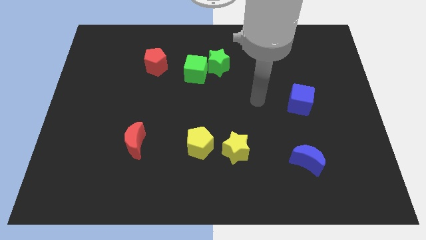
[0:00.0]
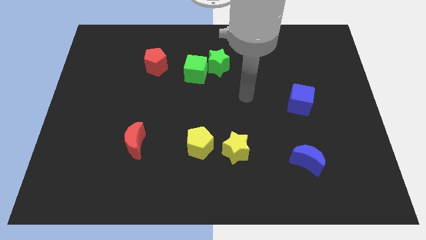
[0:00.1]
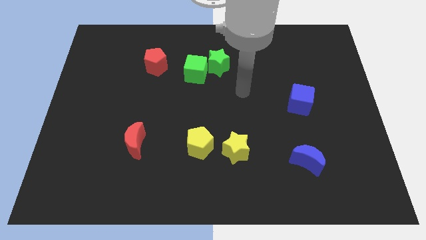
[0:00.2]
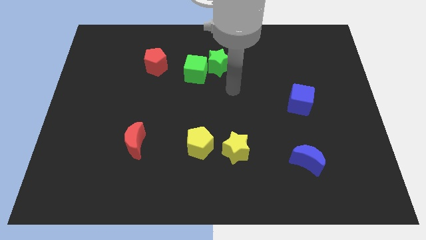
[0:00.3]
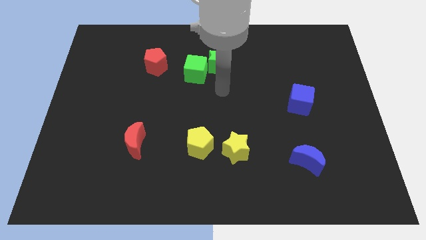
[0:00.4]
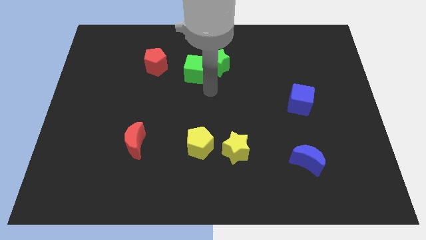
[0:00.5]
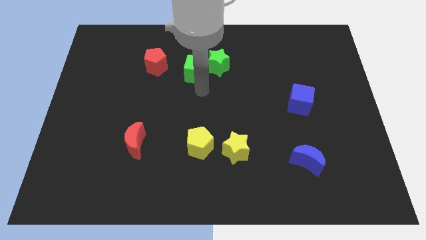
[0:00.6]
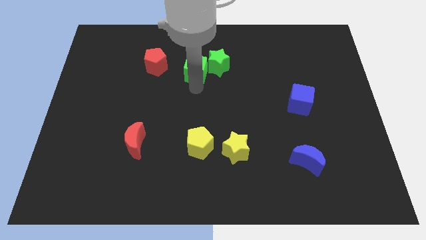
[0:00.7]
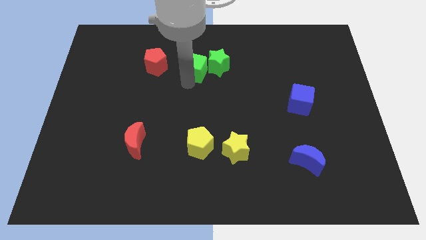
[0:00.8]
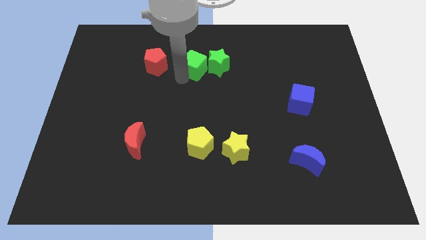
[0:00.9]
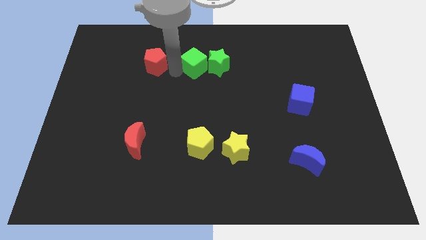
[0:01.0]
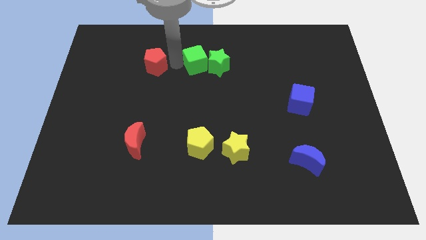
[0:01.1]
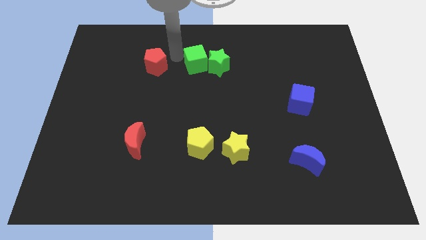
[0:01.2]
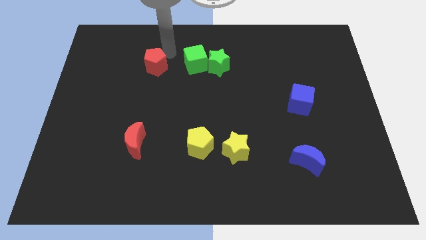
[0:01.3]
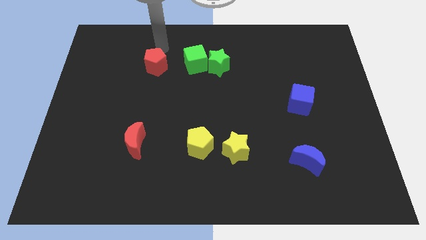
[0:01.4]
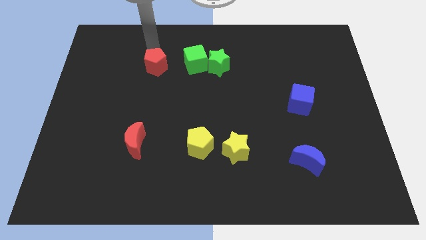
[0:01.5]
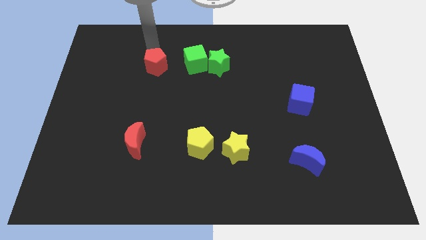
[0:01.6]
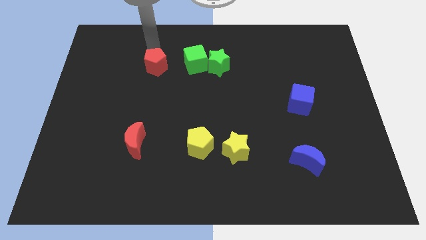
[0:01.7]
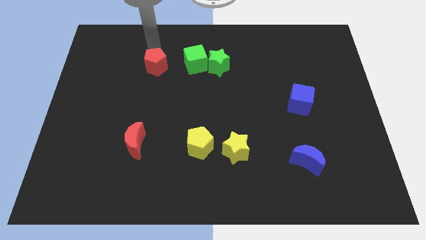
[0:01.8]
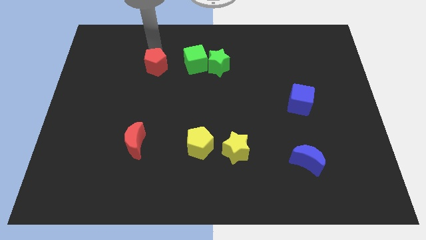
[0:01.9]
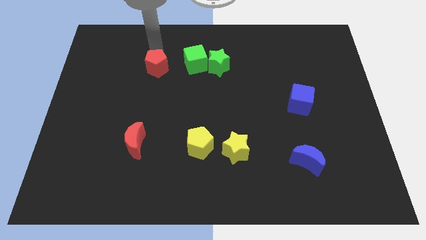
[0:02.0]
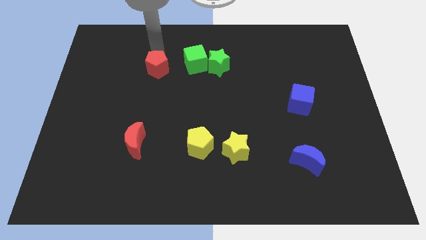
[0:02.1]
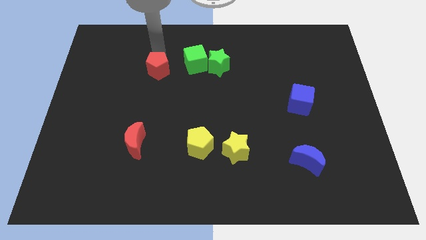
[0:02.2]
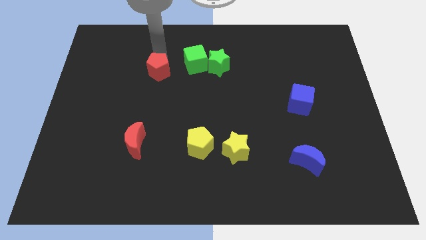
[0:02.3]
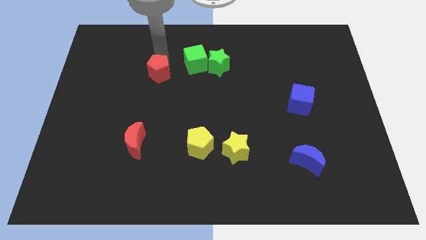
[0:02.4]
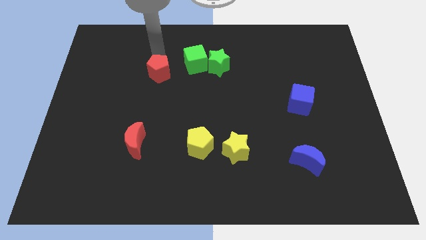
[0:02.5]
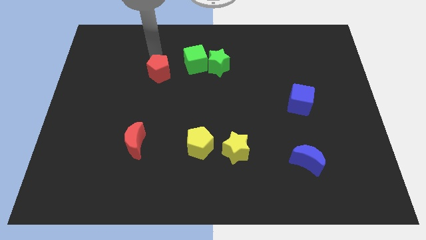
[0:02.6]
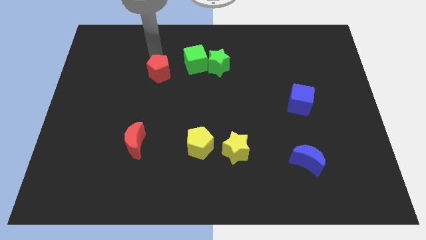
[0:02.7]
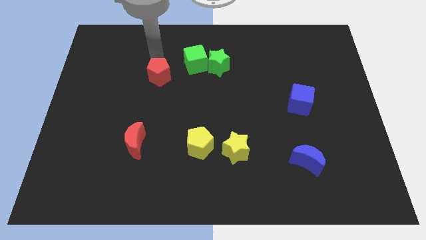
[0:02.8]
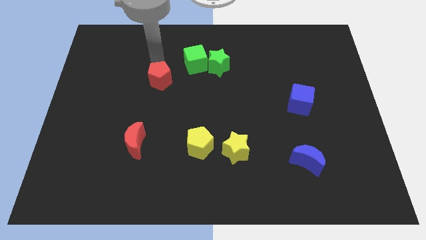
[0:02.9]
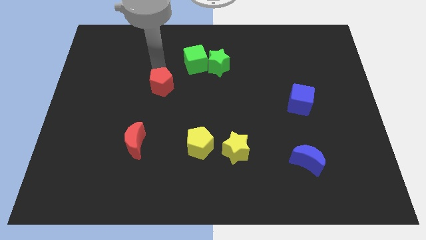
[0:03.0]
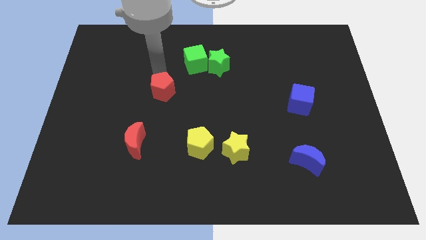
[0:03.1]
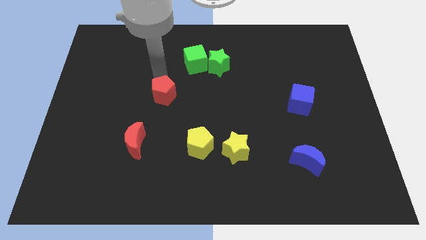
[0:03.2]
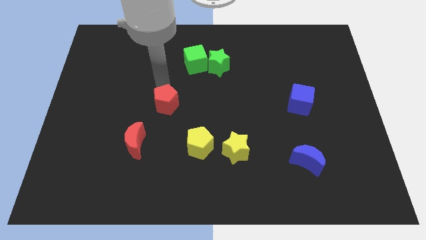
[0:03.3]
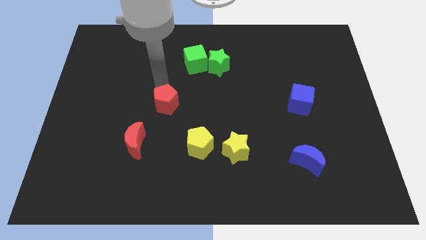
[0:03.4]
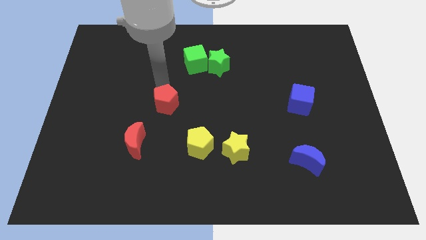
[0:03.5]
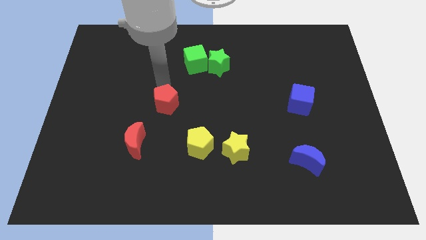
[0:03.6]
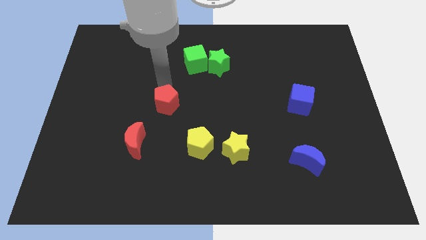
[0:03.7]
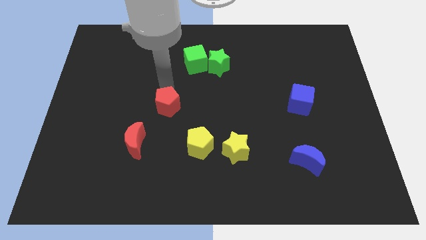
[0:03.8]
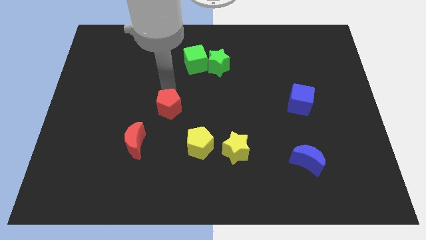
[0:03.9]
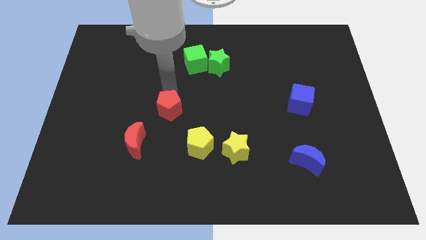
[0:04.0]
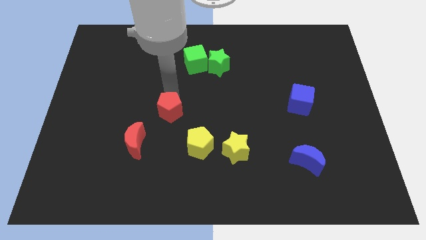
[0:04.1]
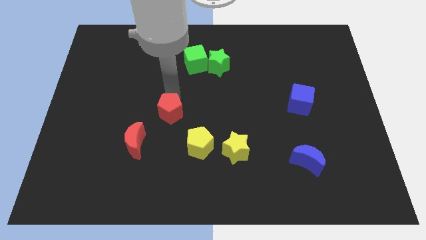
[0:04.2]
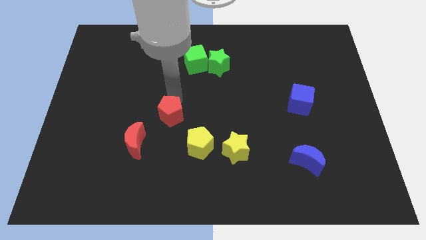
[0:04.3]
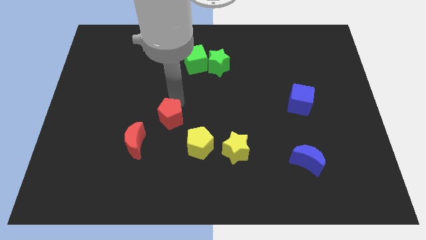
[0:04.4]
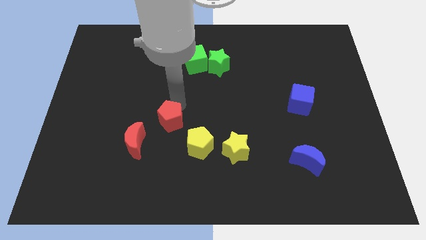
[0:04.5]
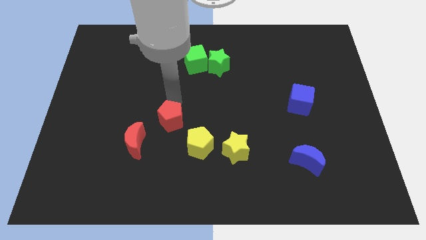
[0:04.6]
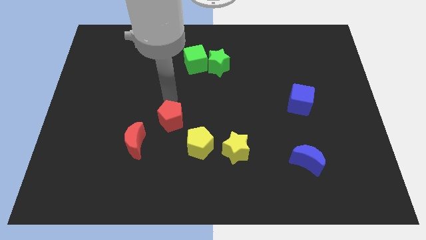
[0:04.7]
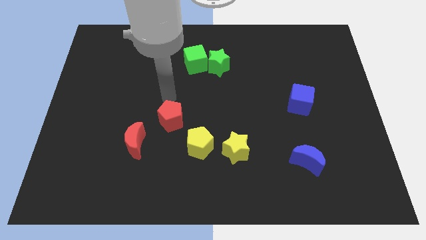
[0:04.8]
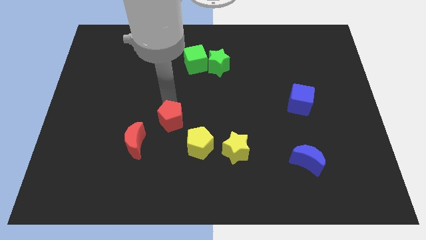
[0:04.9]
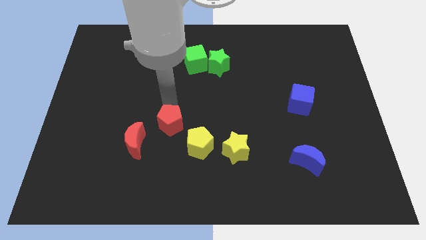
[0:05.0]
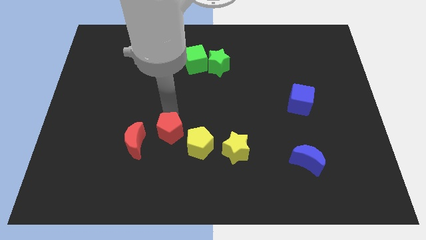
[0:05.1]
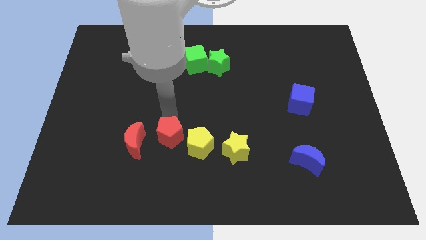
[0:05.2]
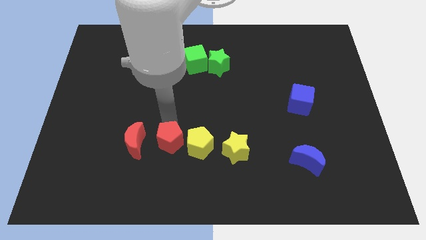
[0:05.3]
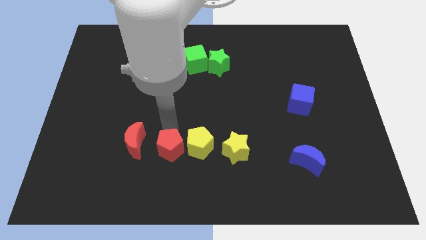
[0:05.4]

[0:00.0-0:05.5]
move the red pentagon to the bottom left side of the yellow pentagon

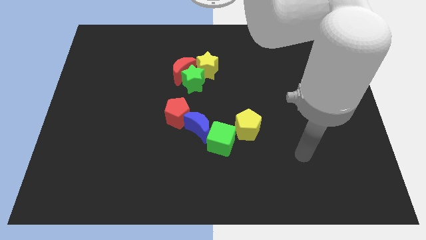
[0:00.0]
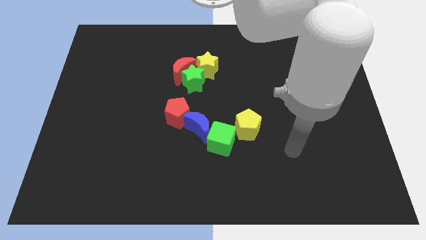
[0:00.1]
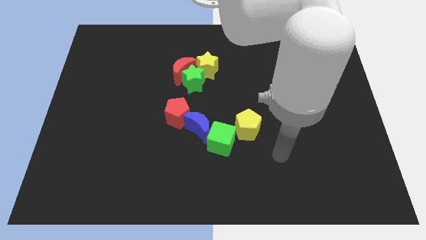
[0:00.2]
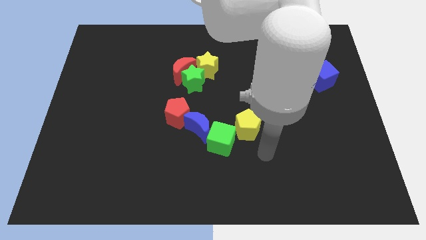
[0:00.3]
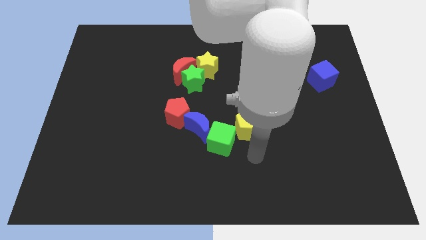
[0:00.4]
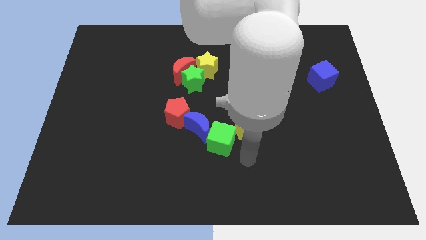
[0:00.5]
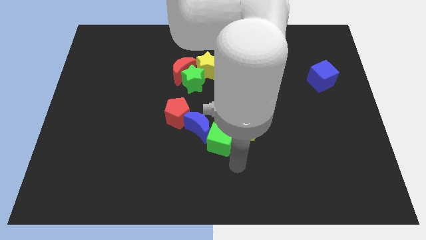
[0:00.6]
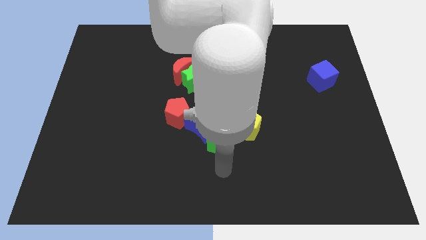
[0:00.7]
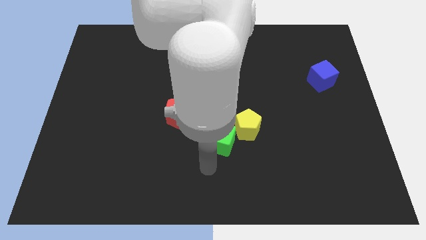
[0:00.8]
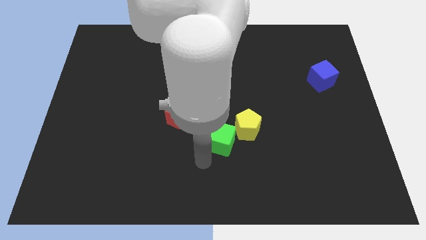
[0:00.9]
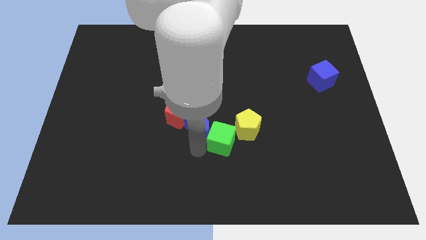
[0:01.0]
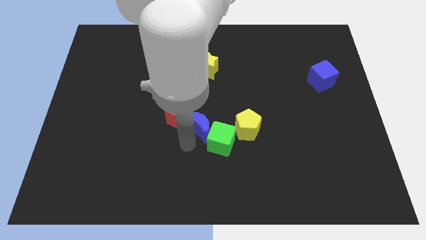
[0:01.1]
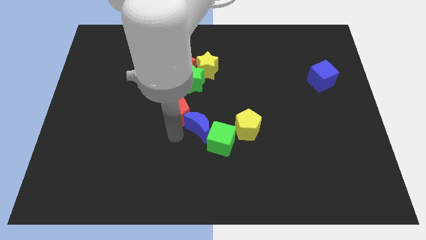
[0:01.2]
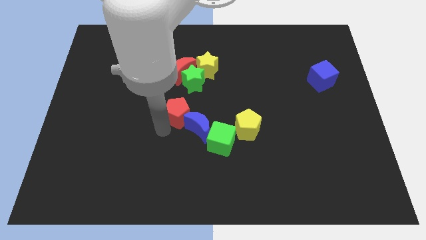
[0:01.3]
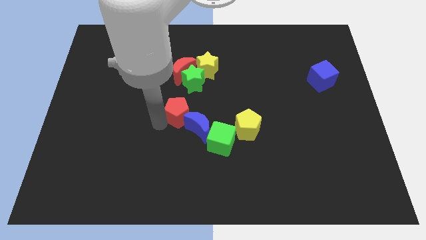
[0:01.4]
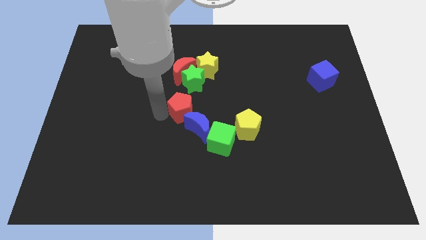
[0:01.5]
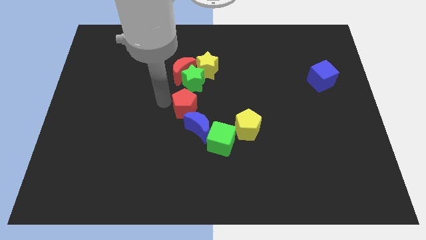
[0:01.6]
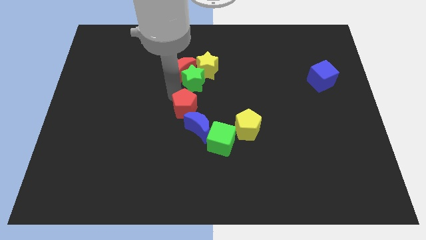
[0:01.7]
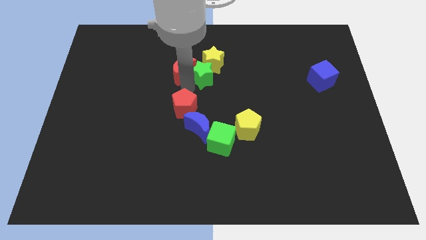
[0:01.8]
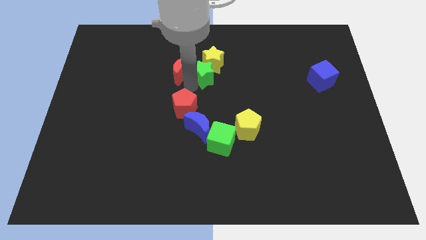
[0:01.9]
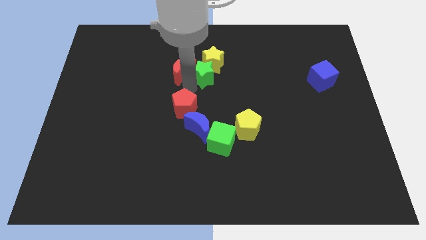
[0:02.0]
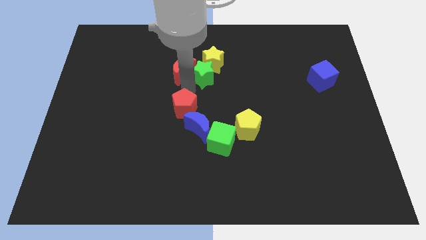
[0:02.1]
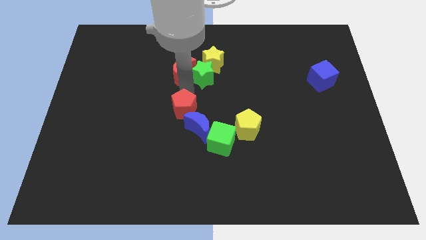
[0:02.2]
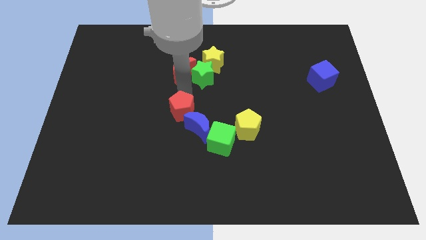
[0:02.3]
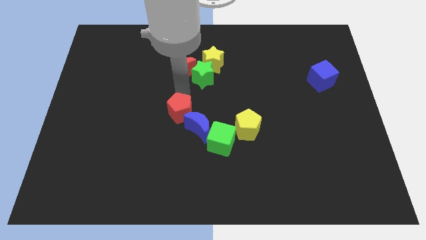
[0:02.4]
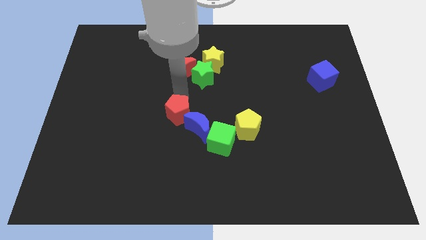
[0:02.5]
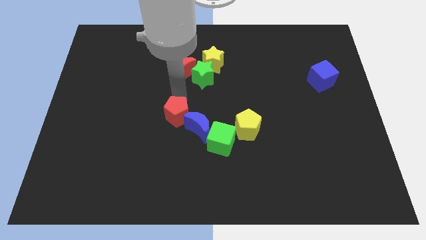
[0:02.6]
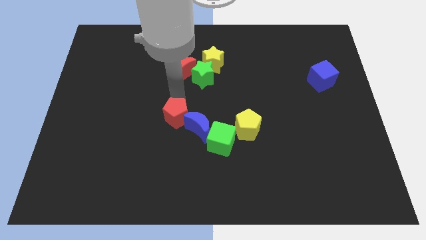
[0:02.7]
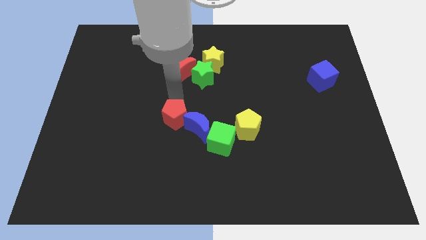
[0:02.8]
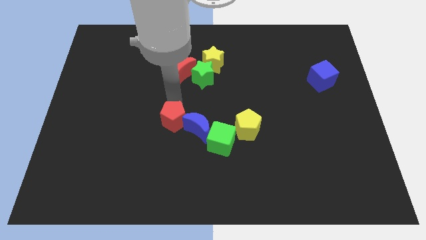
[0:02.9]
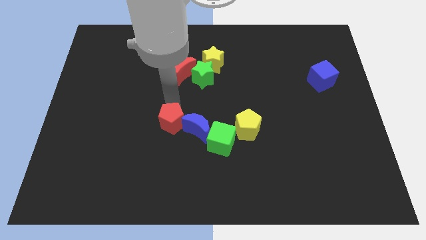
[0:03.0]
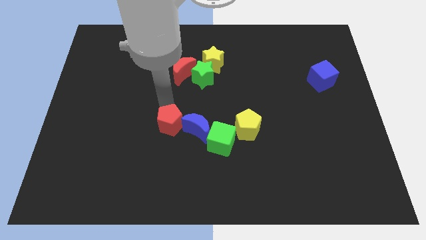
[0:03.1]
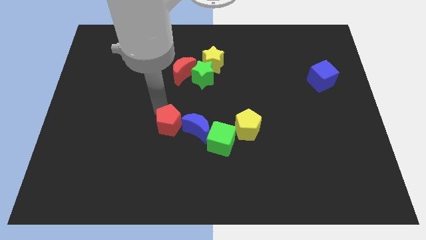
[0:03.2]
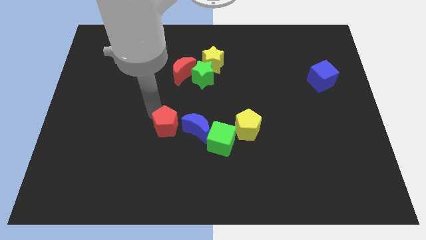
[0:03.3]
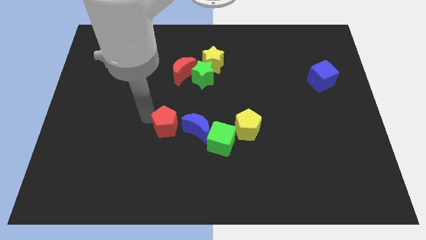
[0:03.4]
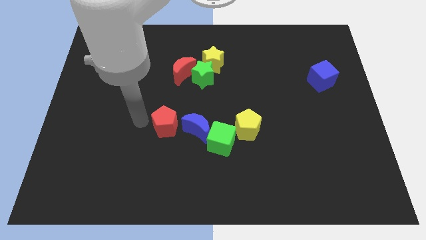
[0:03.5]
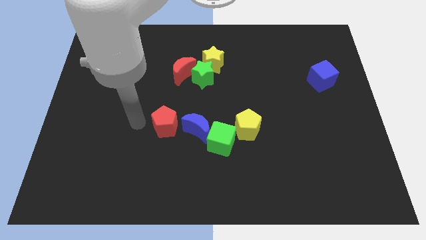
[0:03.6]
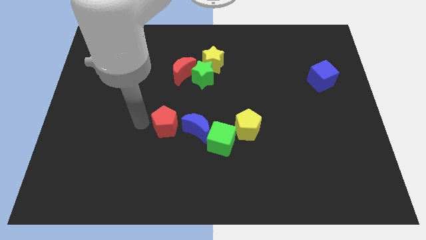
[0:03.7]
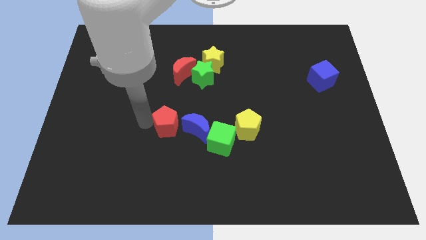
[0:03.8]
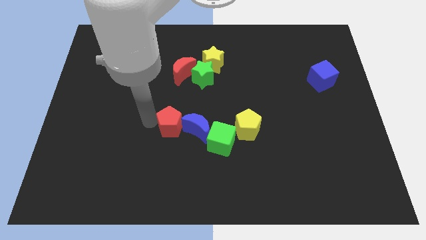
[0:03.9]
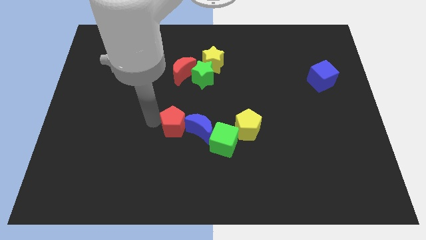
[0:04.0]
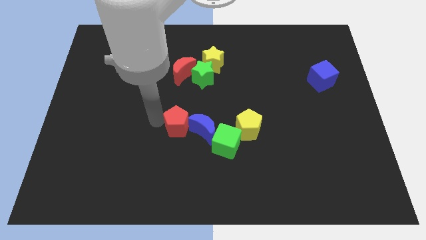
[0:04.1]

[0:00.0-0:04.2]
slide the red pentagon to the left side of the yellow pentagon
